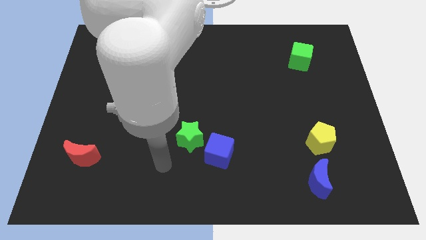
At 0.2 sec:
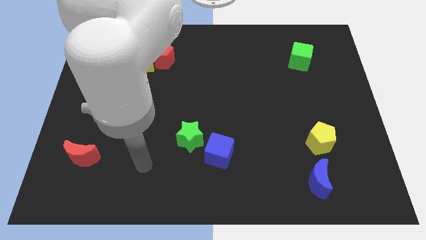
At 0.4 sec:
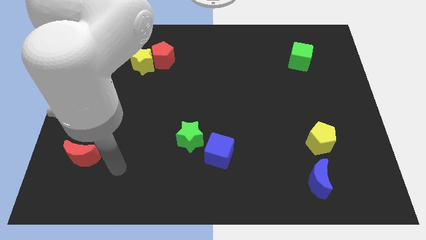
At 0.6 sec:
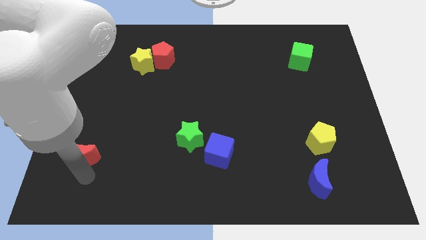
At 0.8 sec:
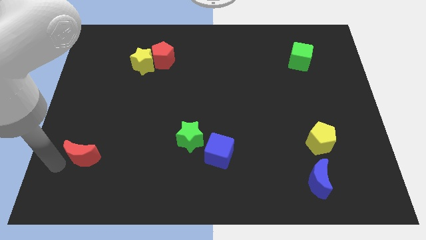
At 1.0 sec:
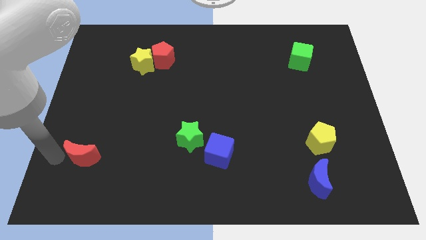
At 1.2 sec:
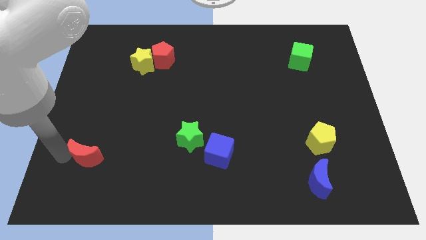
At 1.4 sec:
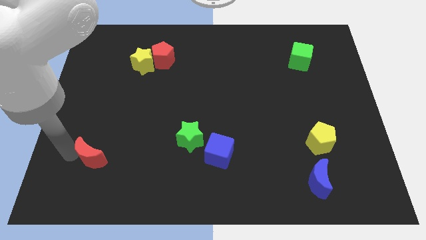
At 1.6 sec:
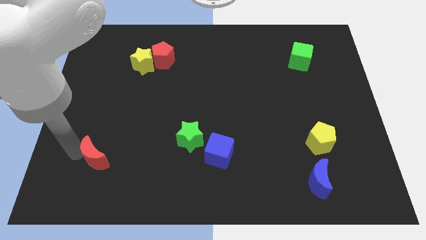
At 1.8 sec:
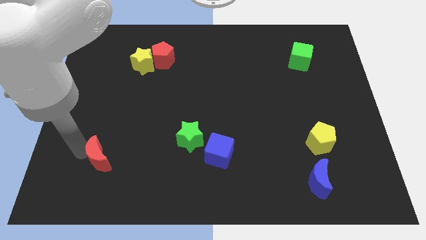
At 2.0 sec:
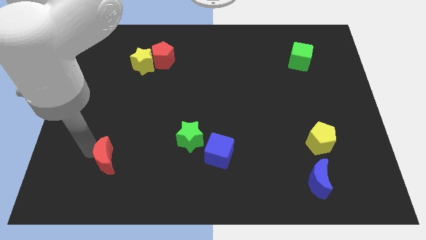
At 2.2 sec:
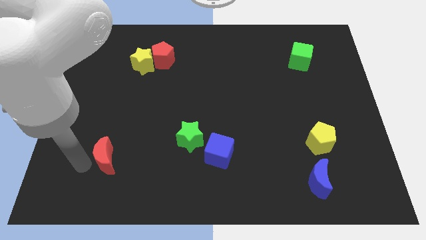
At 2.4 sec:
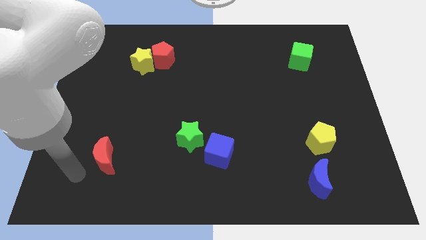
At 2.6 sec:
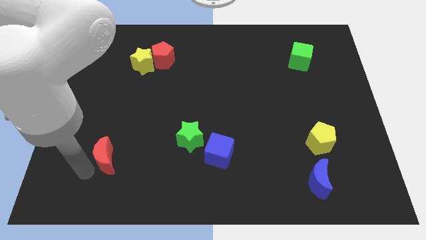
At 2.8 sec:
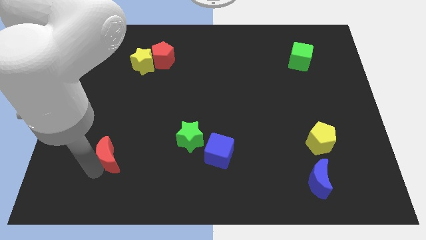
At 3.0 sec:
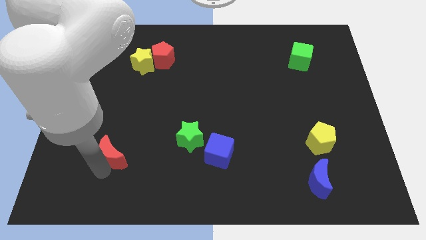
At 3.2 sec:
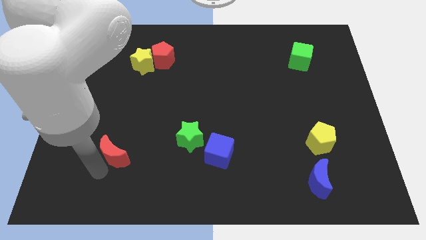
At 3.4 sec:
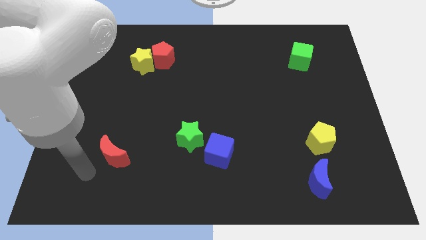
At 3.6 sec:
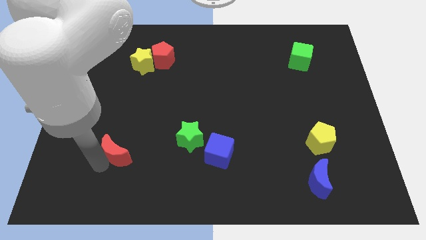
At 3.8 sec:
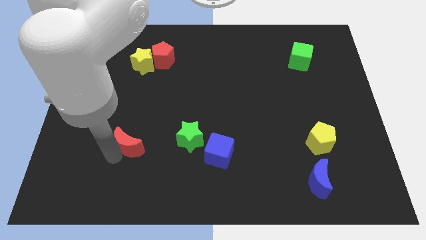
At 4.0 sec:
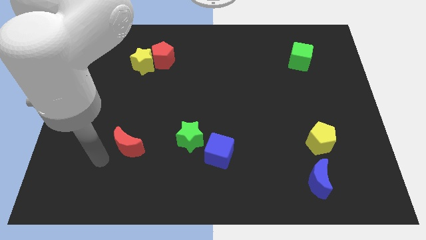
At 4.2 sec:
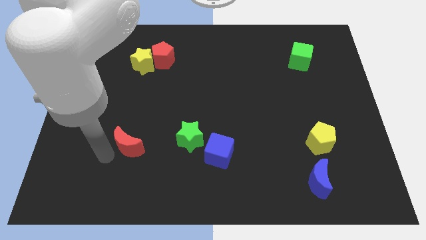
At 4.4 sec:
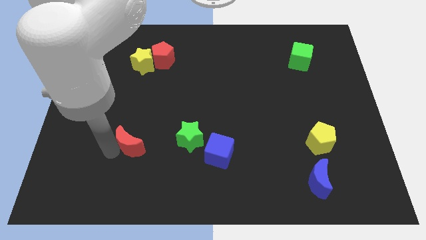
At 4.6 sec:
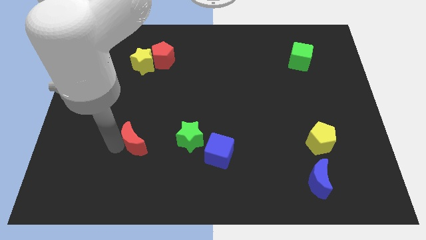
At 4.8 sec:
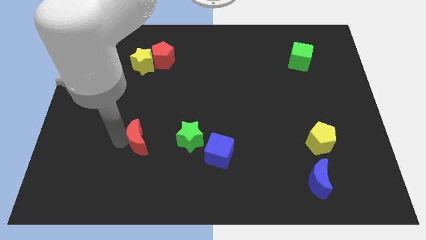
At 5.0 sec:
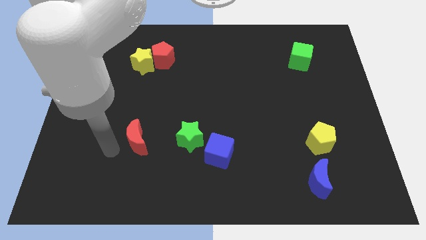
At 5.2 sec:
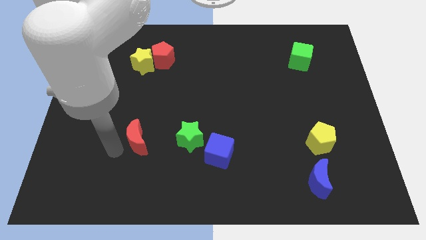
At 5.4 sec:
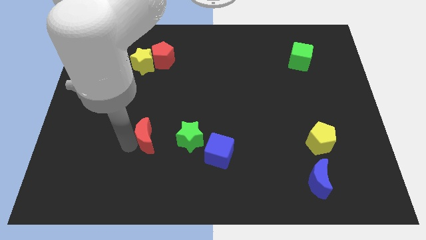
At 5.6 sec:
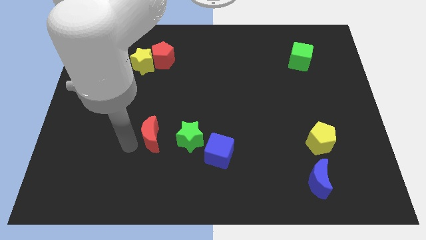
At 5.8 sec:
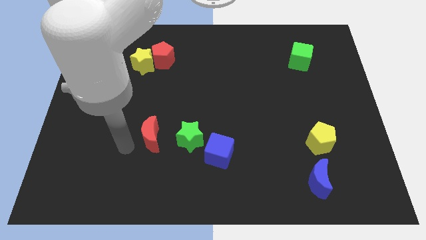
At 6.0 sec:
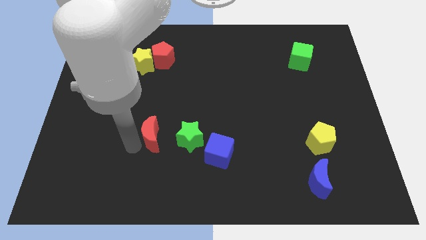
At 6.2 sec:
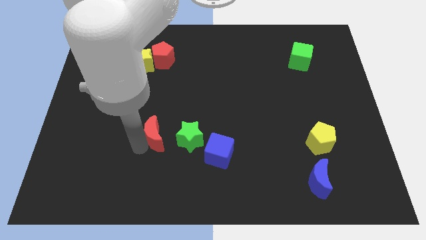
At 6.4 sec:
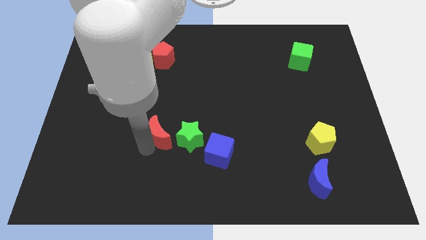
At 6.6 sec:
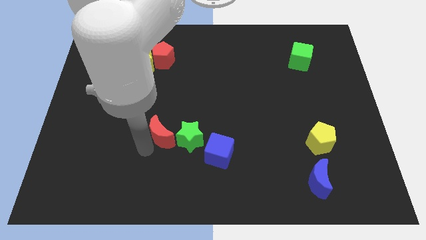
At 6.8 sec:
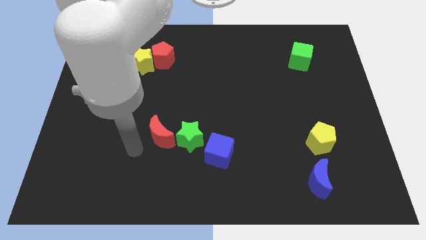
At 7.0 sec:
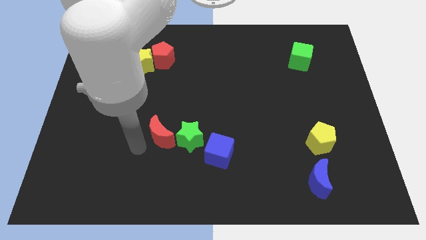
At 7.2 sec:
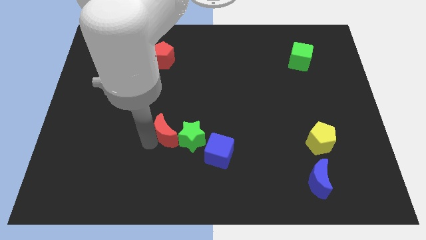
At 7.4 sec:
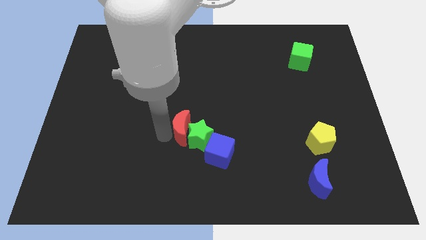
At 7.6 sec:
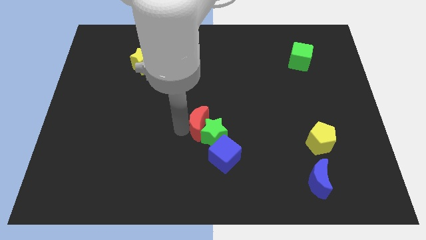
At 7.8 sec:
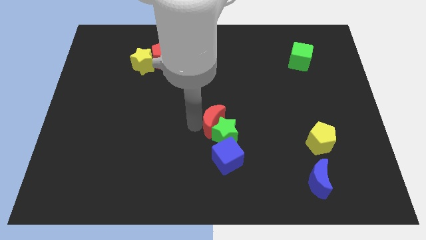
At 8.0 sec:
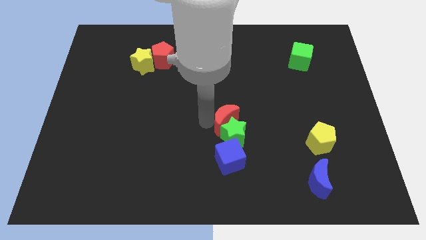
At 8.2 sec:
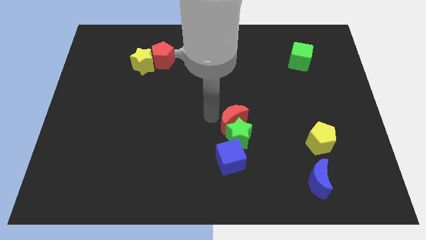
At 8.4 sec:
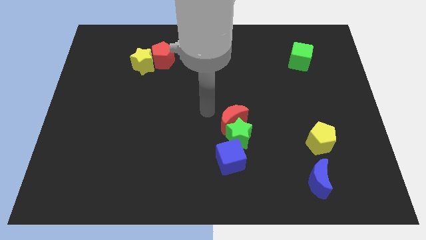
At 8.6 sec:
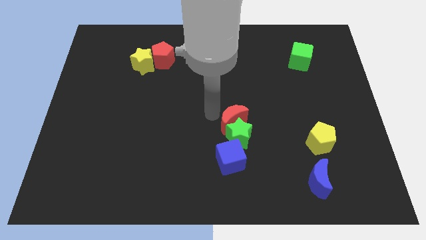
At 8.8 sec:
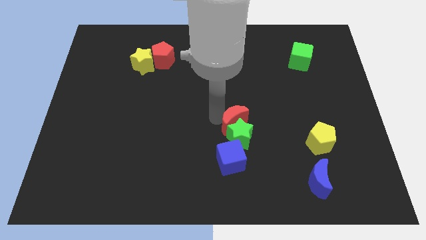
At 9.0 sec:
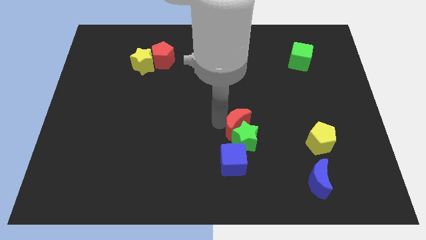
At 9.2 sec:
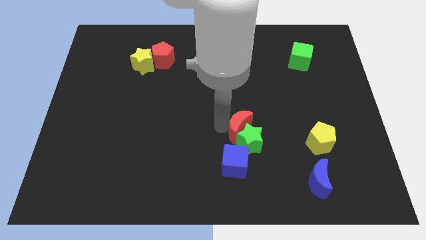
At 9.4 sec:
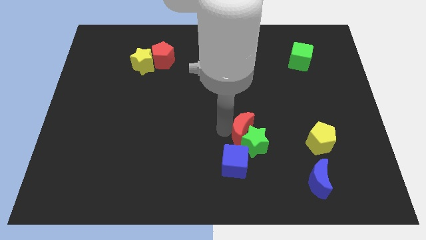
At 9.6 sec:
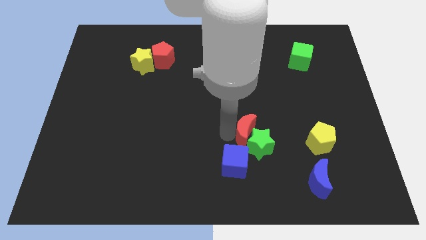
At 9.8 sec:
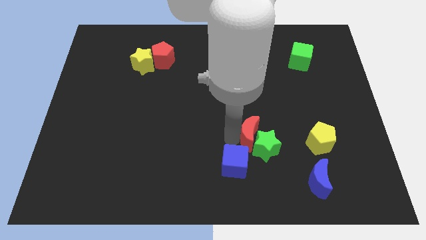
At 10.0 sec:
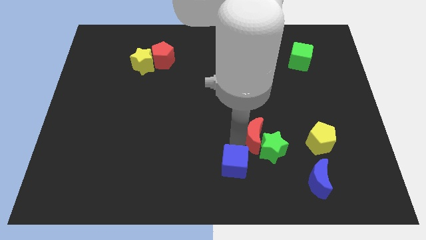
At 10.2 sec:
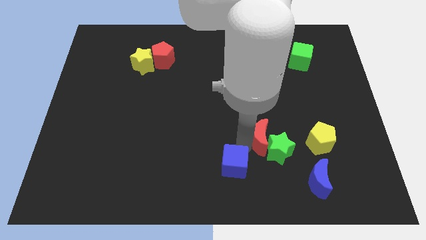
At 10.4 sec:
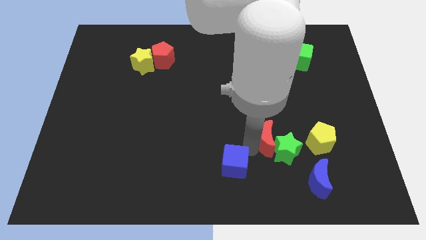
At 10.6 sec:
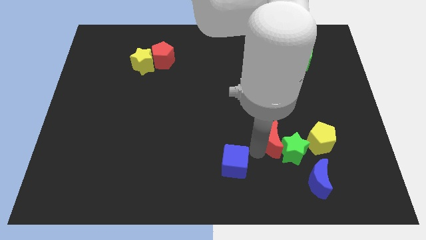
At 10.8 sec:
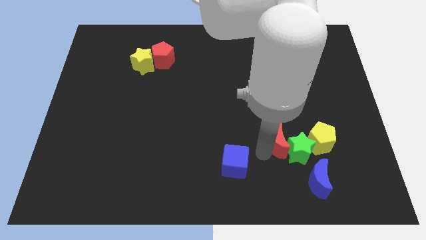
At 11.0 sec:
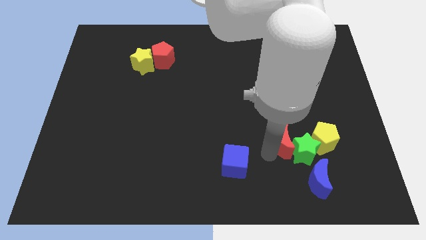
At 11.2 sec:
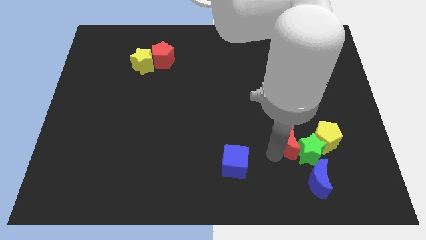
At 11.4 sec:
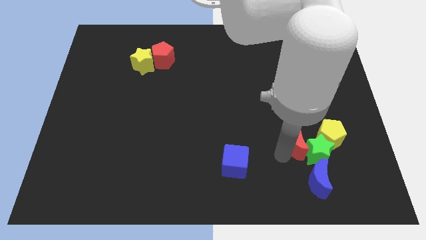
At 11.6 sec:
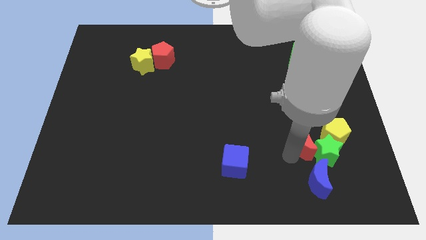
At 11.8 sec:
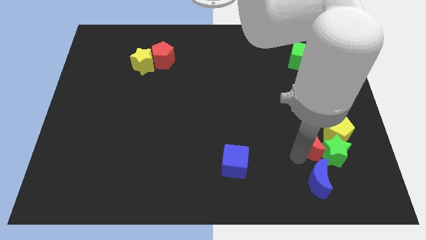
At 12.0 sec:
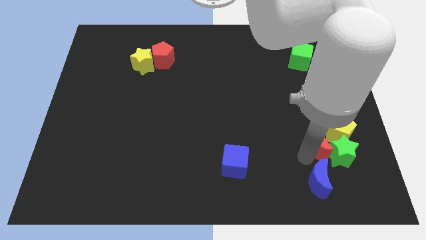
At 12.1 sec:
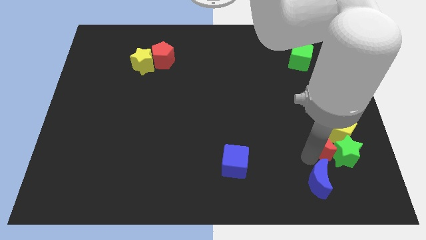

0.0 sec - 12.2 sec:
slide the red moon to the yellow pentagon

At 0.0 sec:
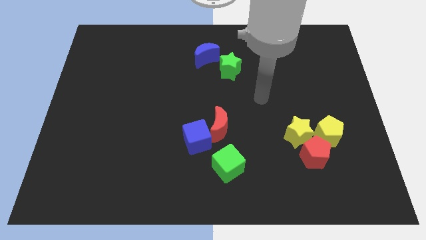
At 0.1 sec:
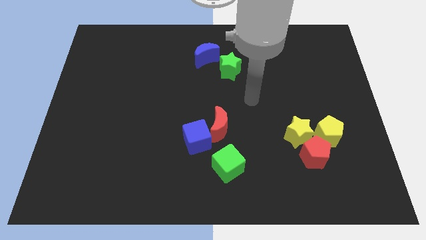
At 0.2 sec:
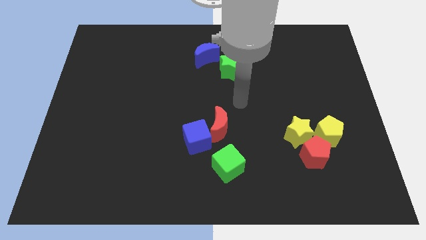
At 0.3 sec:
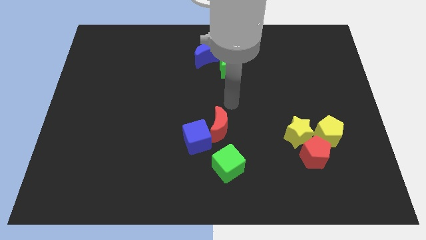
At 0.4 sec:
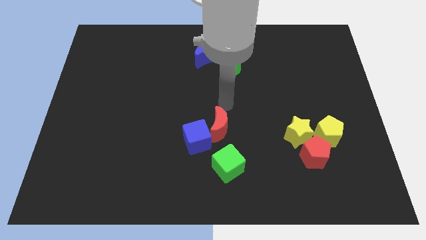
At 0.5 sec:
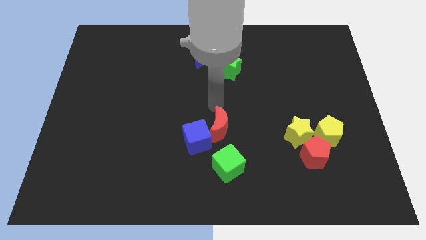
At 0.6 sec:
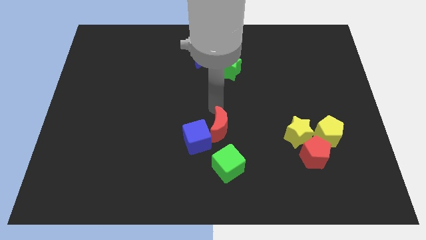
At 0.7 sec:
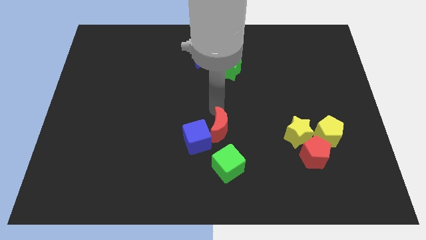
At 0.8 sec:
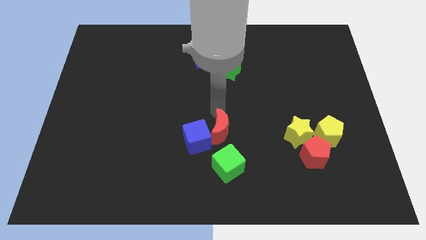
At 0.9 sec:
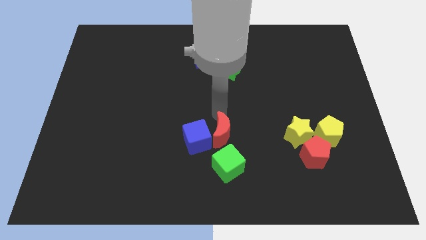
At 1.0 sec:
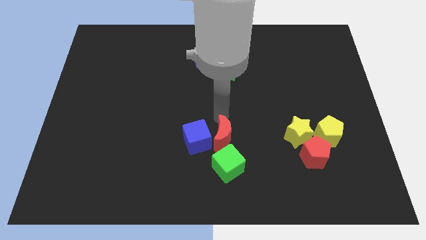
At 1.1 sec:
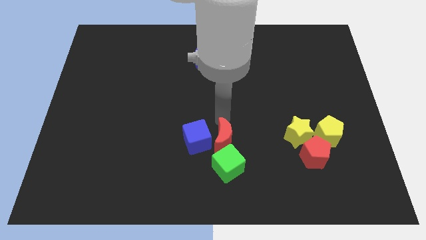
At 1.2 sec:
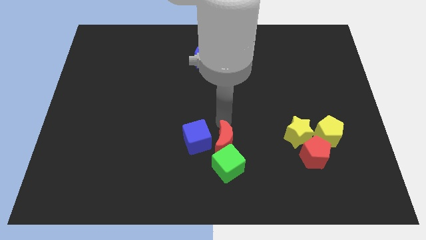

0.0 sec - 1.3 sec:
slide the red moon close to the green cube
